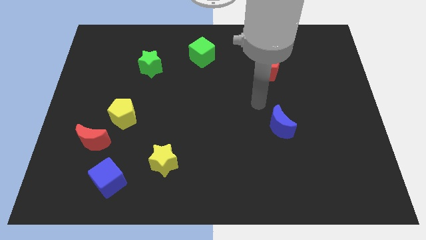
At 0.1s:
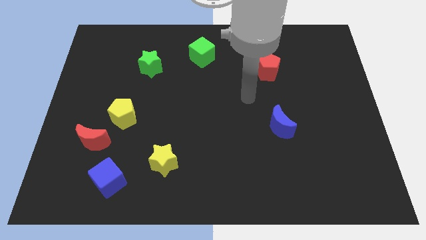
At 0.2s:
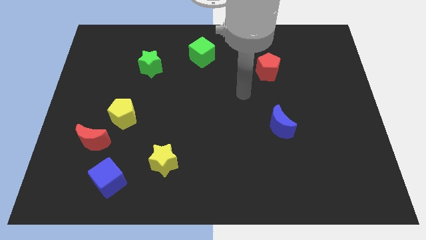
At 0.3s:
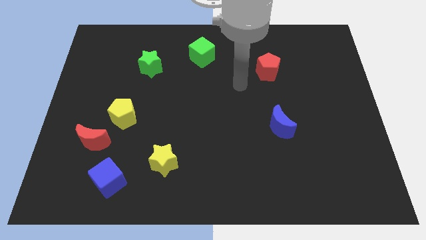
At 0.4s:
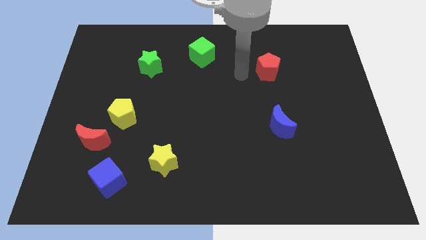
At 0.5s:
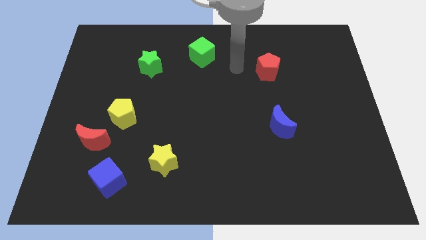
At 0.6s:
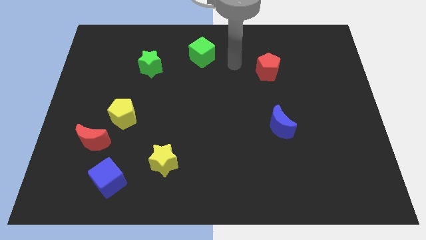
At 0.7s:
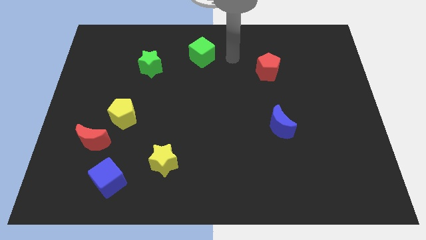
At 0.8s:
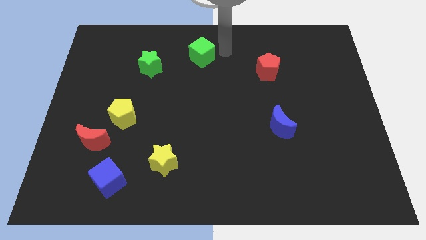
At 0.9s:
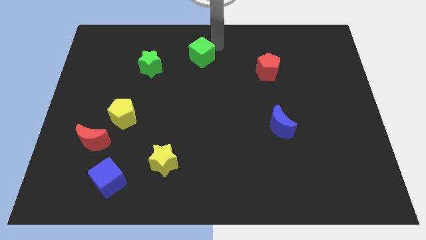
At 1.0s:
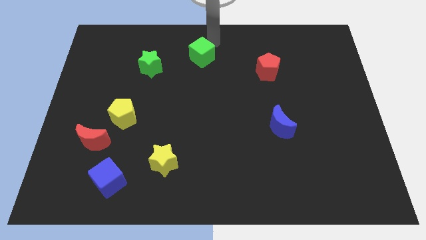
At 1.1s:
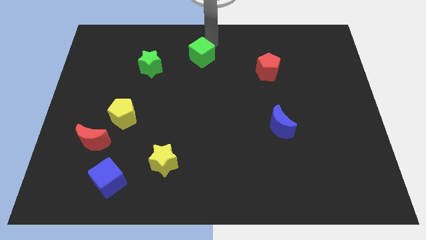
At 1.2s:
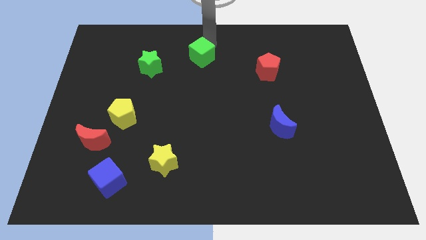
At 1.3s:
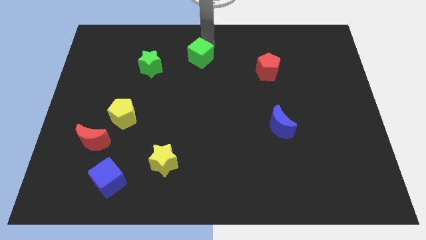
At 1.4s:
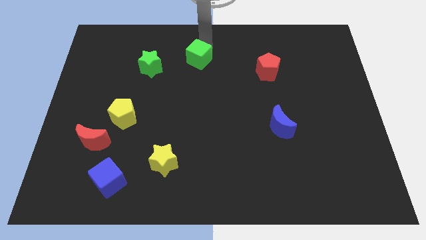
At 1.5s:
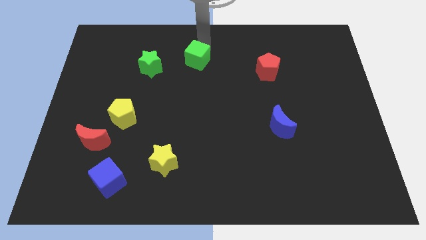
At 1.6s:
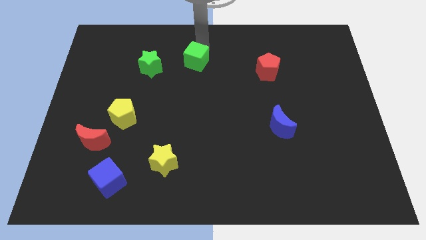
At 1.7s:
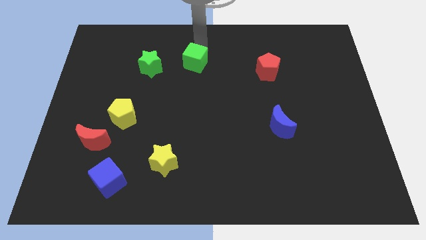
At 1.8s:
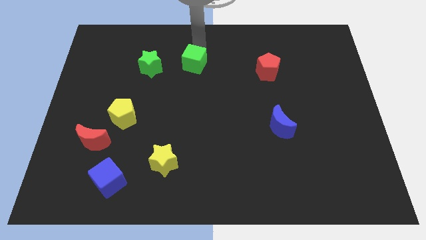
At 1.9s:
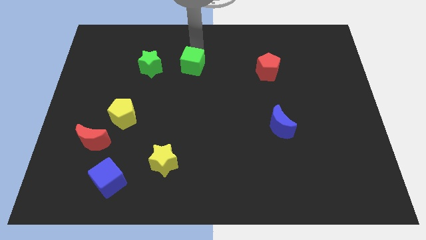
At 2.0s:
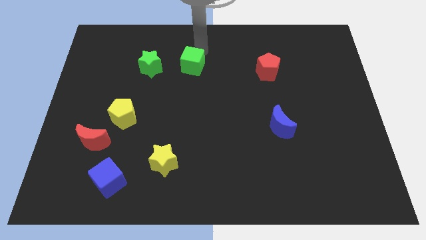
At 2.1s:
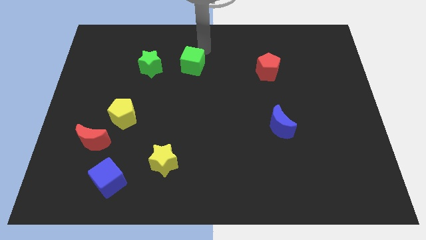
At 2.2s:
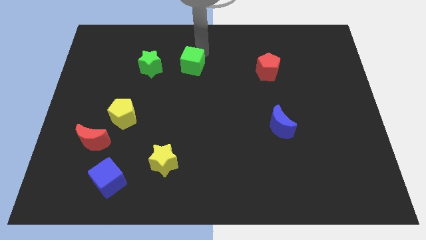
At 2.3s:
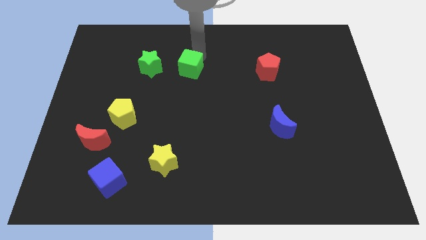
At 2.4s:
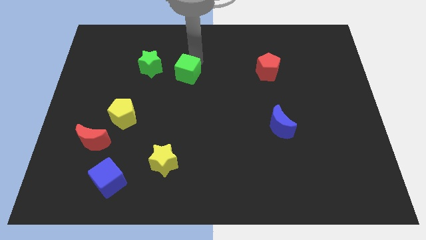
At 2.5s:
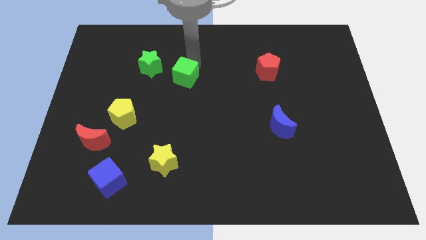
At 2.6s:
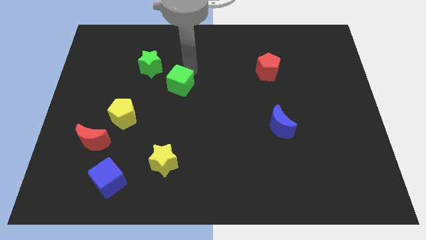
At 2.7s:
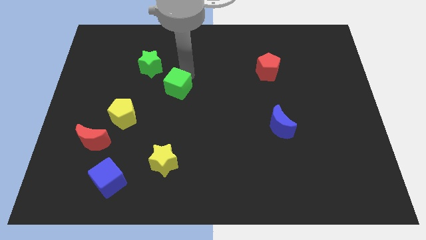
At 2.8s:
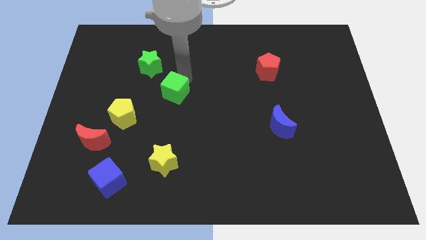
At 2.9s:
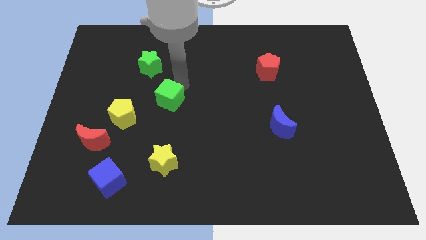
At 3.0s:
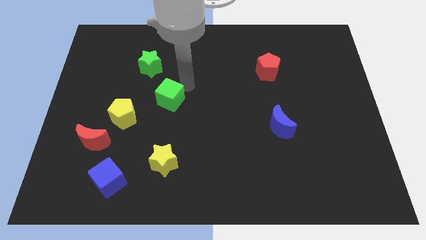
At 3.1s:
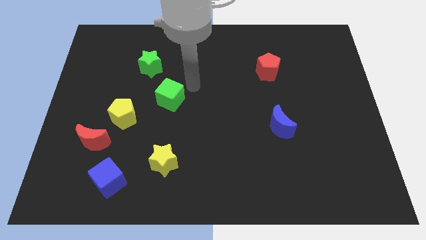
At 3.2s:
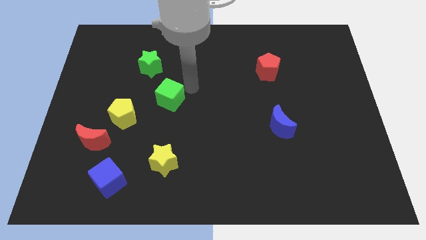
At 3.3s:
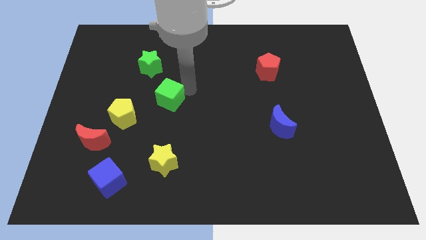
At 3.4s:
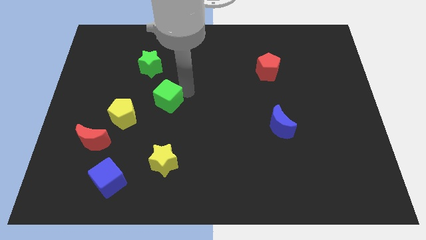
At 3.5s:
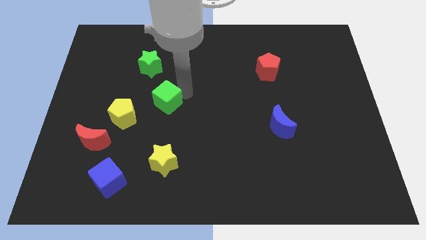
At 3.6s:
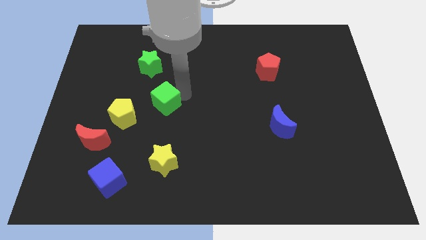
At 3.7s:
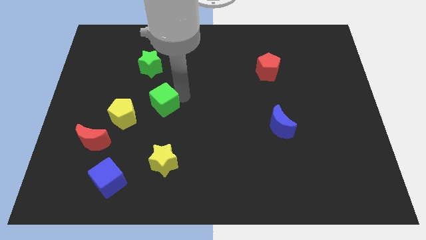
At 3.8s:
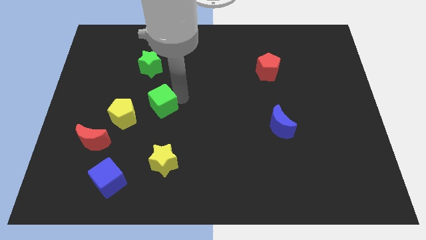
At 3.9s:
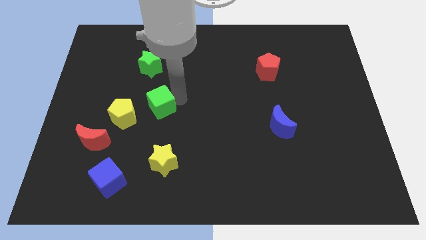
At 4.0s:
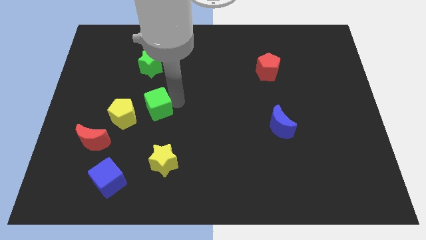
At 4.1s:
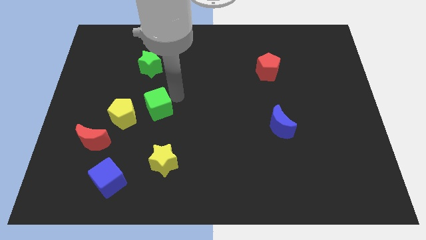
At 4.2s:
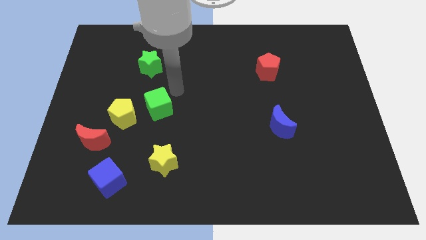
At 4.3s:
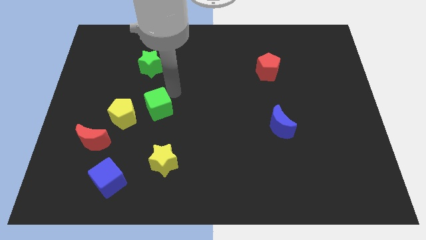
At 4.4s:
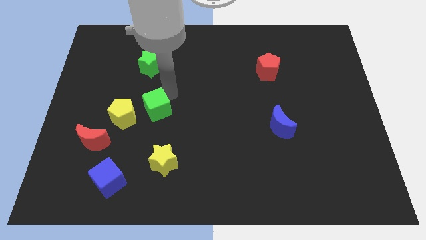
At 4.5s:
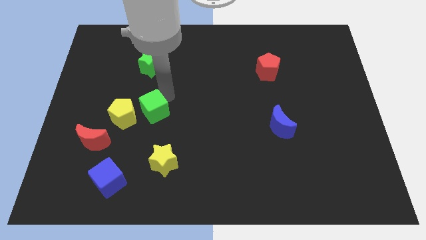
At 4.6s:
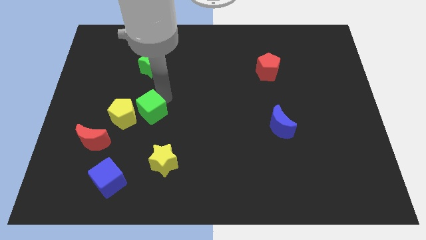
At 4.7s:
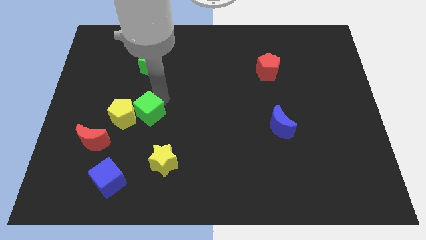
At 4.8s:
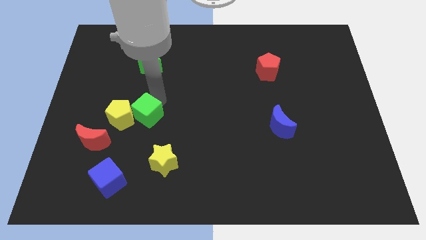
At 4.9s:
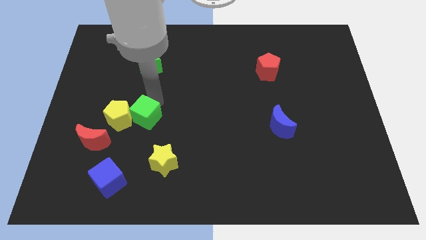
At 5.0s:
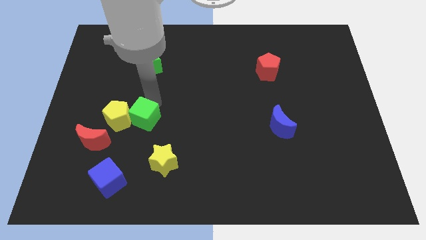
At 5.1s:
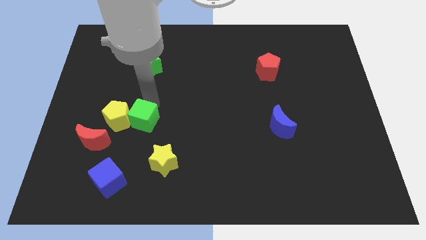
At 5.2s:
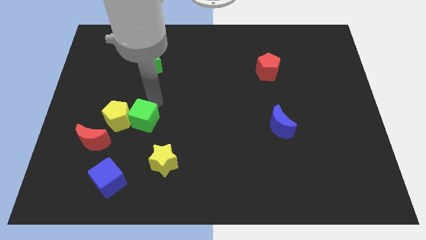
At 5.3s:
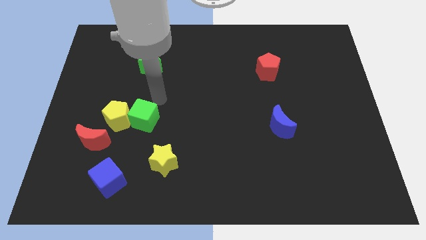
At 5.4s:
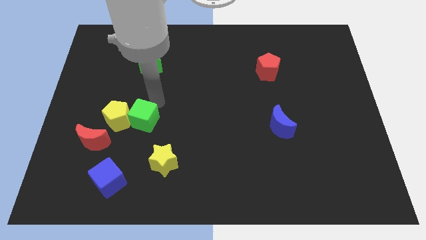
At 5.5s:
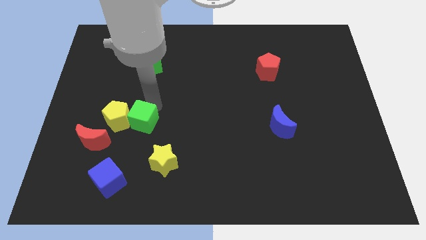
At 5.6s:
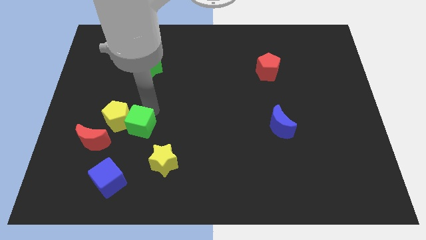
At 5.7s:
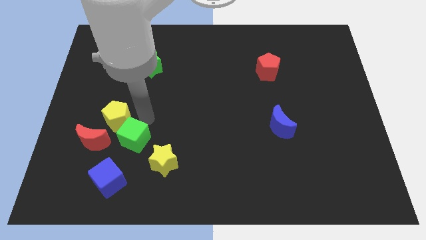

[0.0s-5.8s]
push the green cube below the yellow pentagon

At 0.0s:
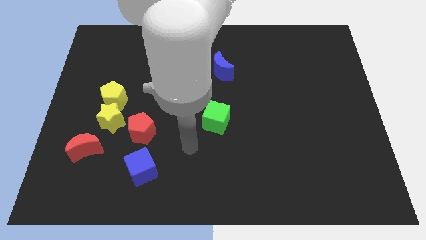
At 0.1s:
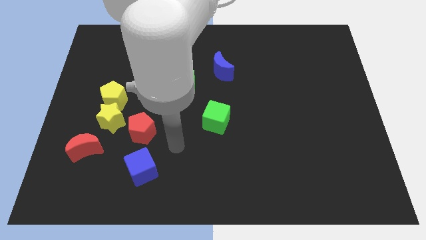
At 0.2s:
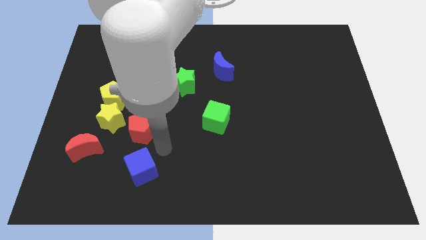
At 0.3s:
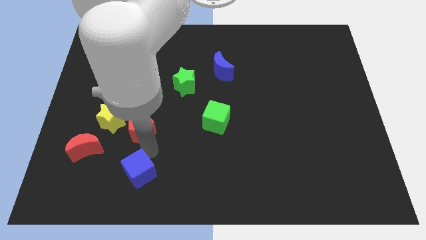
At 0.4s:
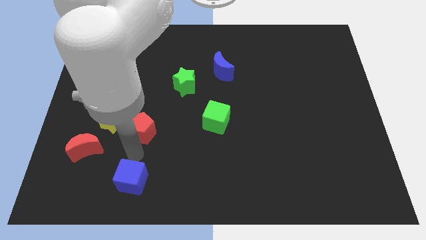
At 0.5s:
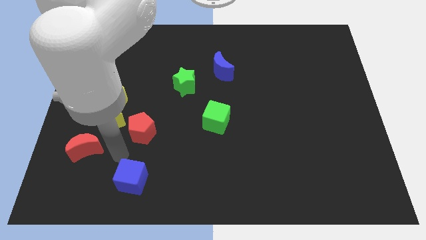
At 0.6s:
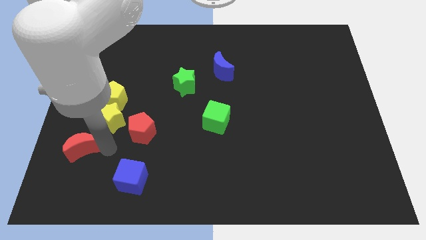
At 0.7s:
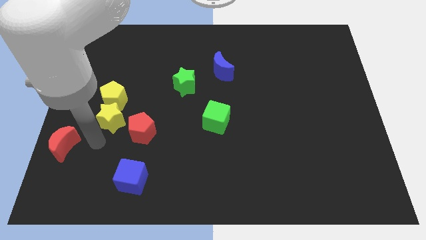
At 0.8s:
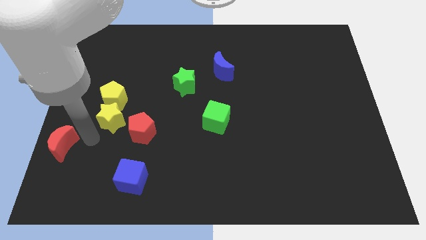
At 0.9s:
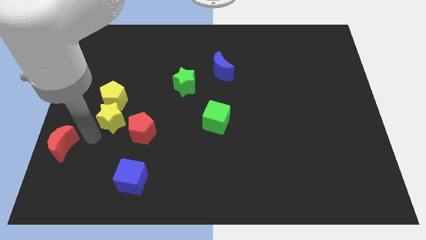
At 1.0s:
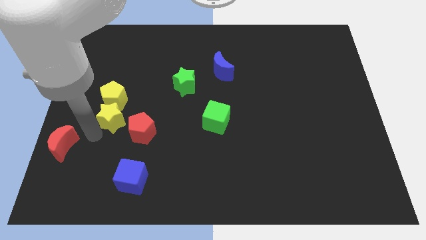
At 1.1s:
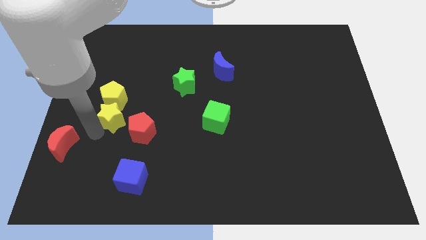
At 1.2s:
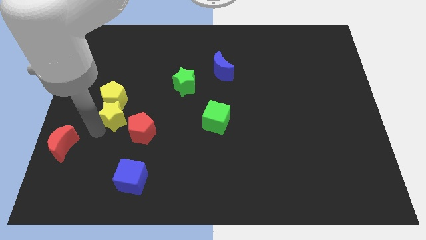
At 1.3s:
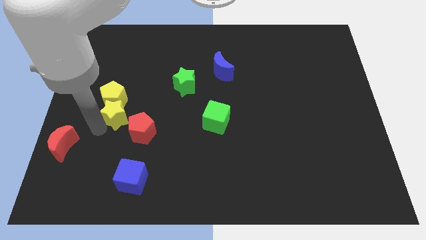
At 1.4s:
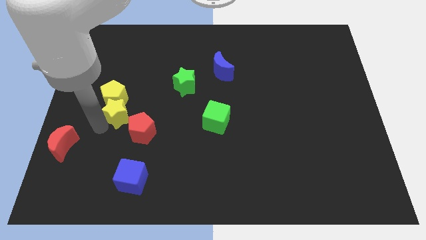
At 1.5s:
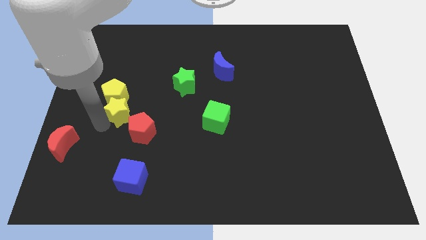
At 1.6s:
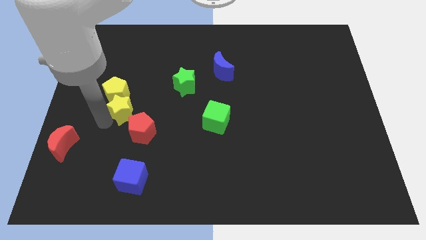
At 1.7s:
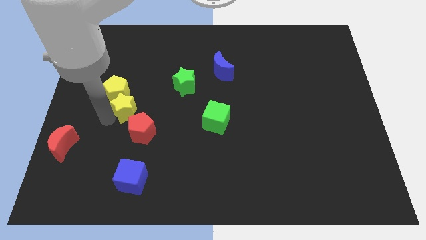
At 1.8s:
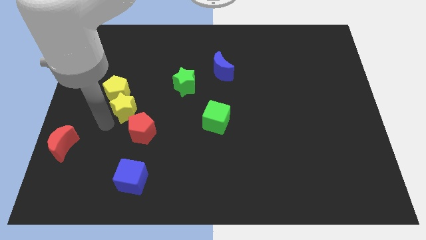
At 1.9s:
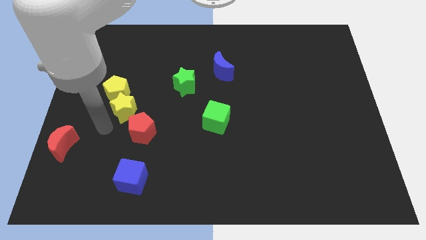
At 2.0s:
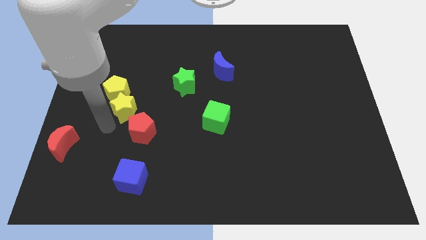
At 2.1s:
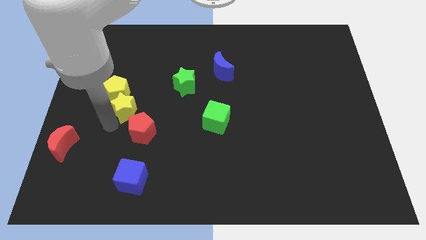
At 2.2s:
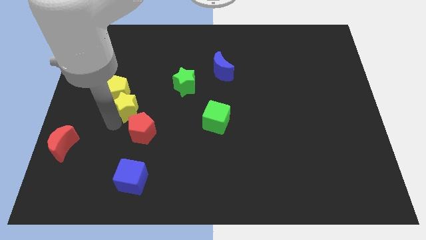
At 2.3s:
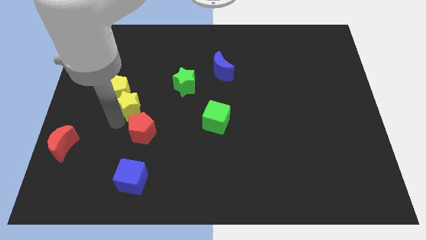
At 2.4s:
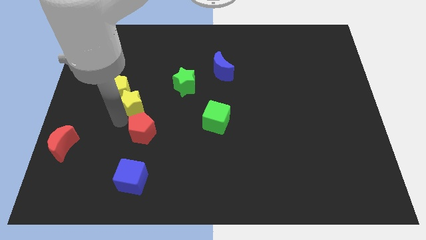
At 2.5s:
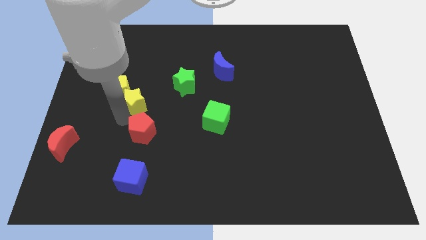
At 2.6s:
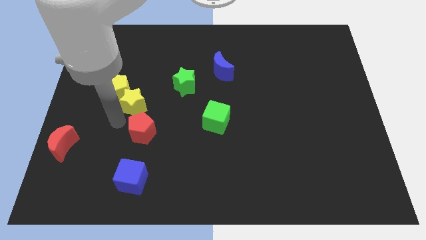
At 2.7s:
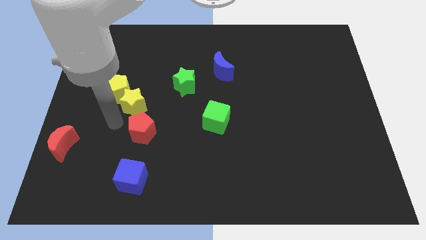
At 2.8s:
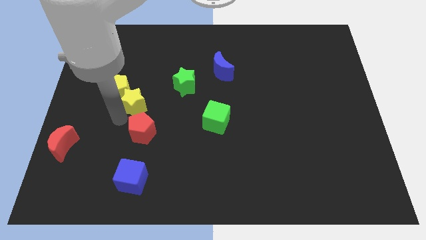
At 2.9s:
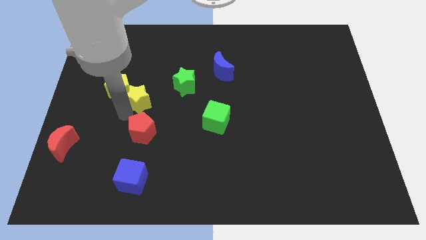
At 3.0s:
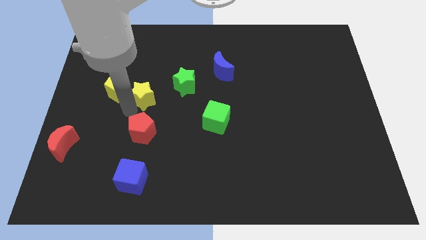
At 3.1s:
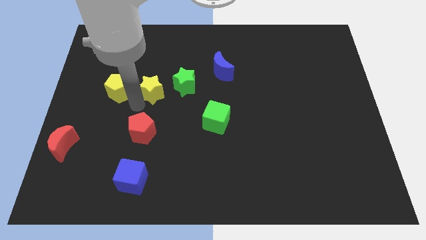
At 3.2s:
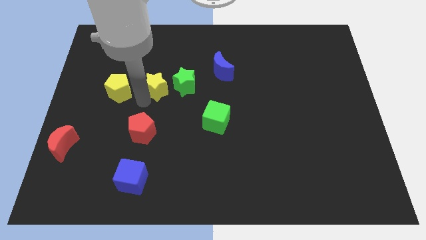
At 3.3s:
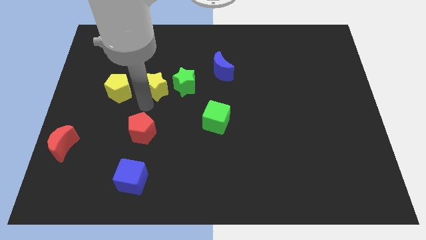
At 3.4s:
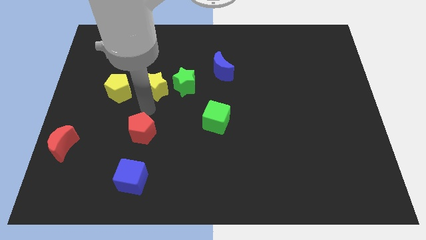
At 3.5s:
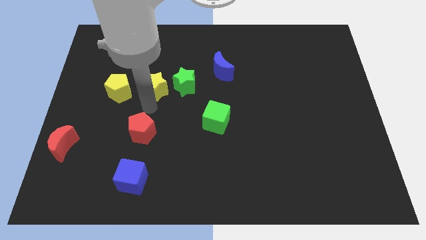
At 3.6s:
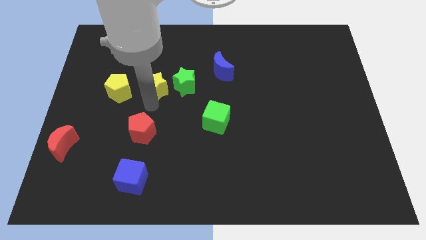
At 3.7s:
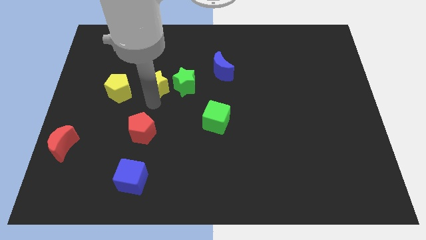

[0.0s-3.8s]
put the yellow star to the top left of the green star
